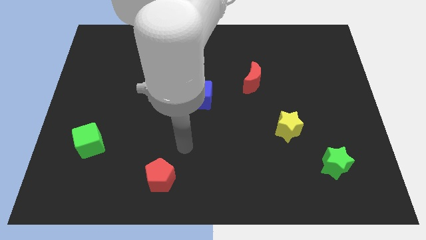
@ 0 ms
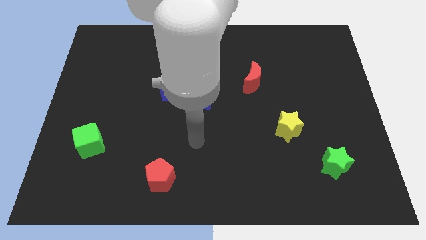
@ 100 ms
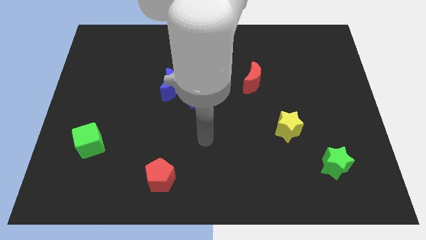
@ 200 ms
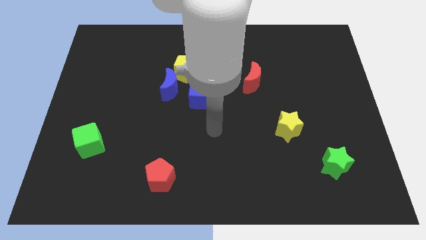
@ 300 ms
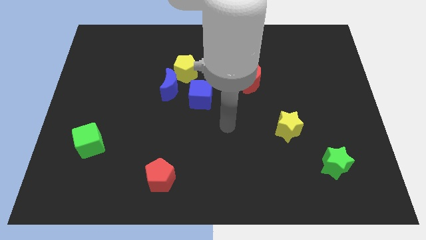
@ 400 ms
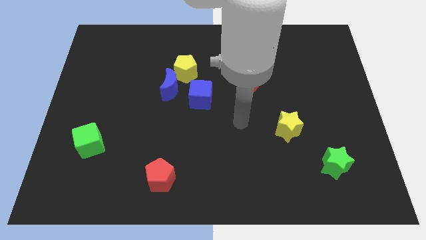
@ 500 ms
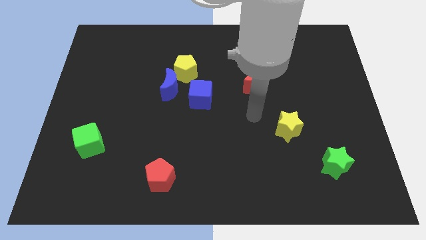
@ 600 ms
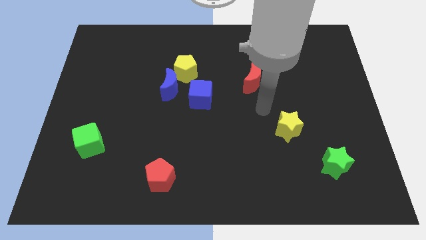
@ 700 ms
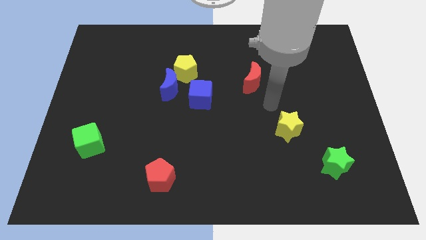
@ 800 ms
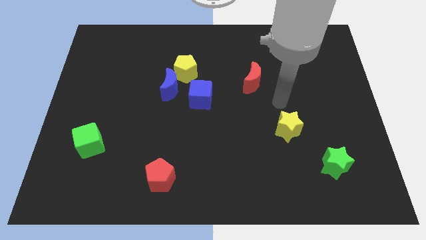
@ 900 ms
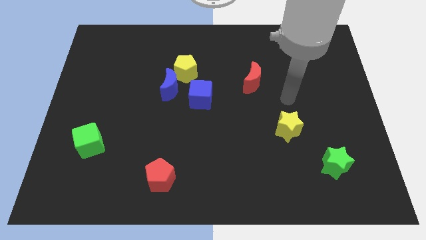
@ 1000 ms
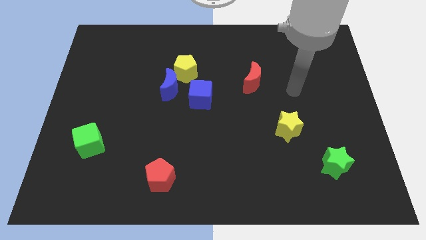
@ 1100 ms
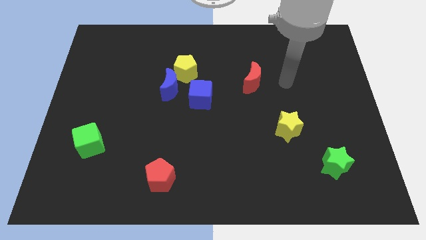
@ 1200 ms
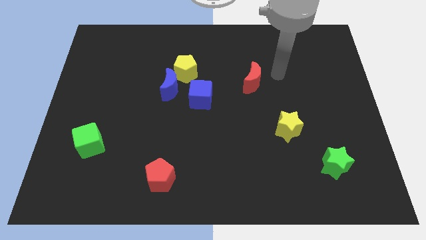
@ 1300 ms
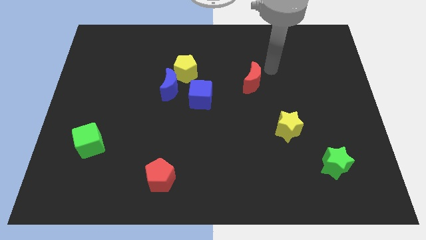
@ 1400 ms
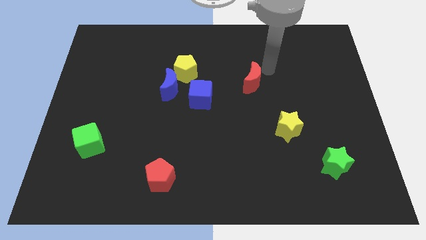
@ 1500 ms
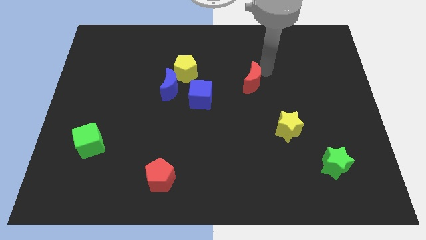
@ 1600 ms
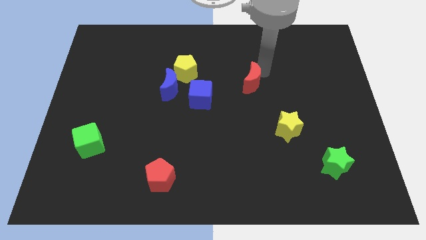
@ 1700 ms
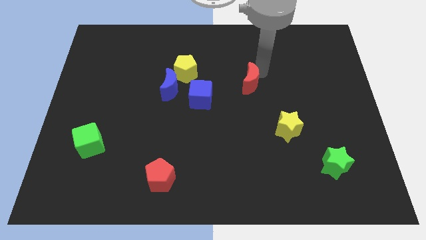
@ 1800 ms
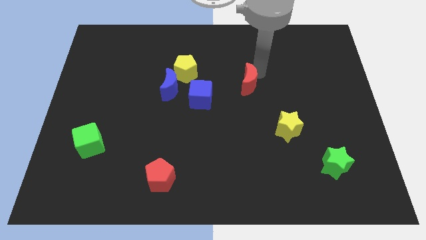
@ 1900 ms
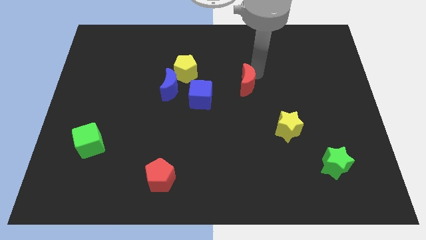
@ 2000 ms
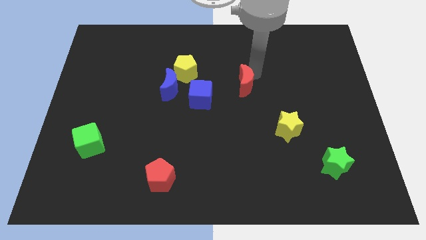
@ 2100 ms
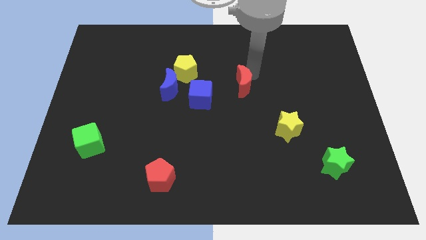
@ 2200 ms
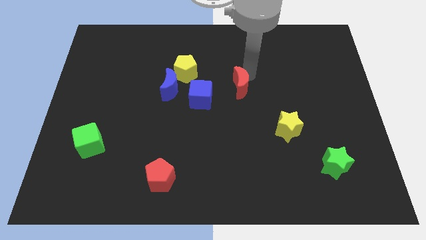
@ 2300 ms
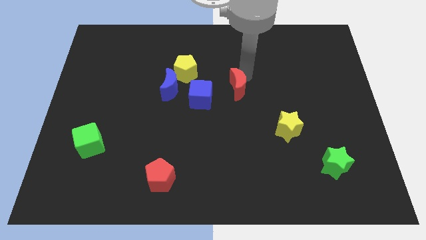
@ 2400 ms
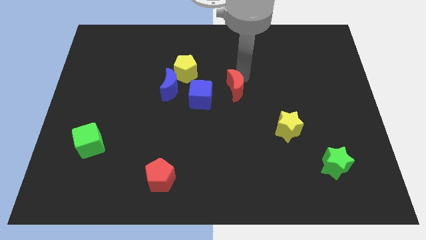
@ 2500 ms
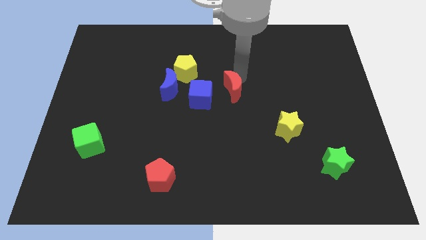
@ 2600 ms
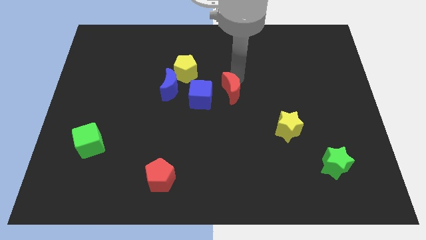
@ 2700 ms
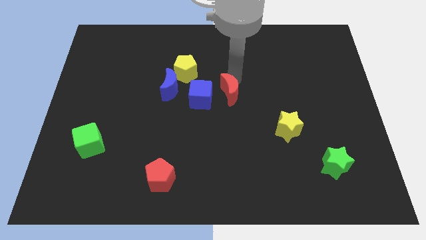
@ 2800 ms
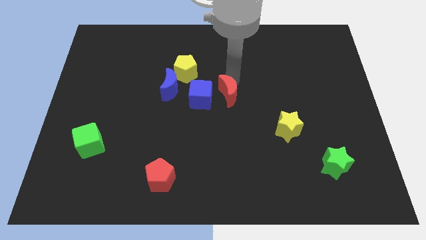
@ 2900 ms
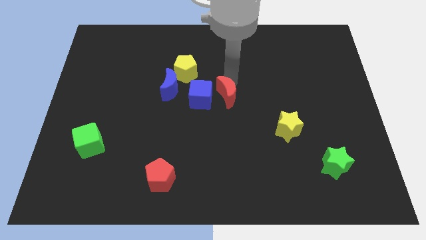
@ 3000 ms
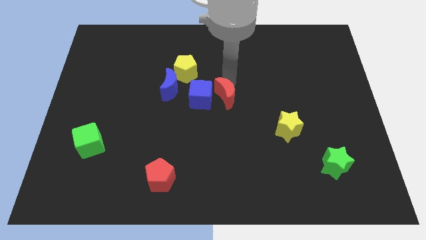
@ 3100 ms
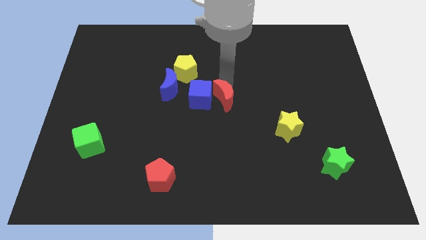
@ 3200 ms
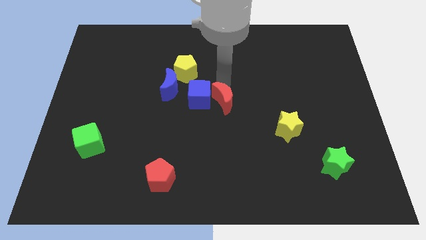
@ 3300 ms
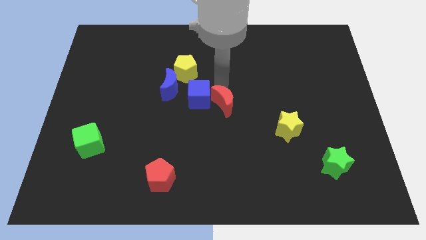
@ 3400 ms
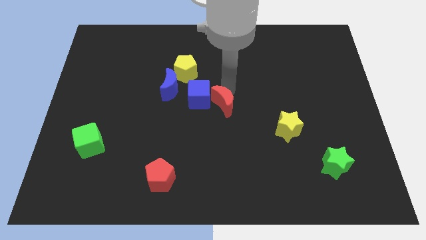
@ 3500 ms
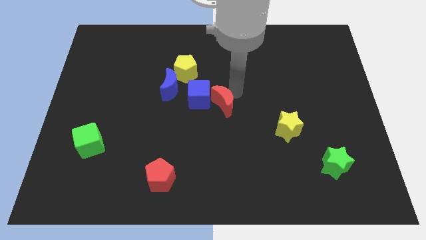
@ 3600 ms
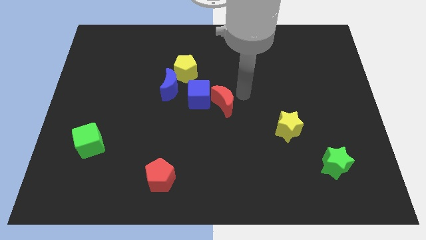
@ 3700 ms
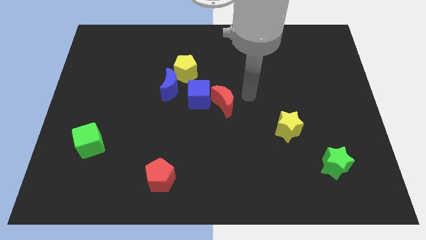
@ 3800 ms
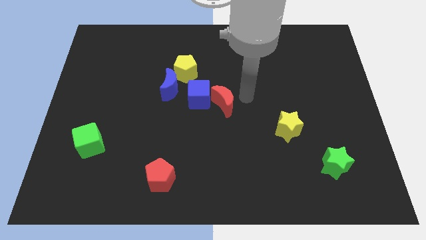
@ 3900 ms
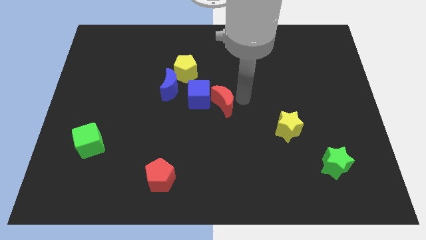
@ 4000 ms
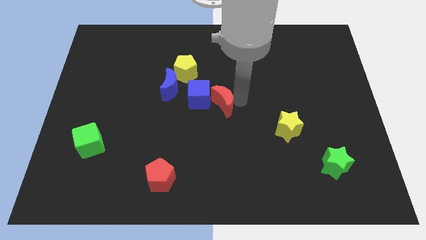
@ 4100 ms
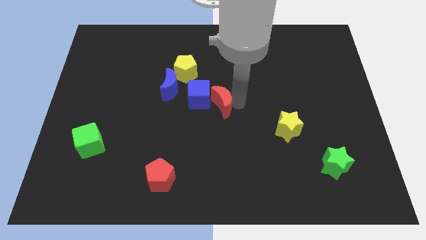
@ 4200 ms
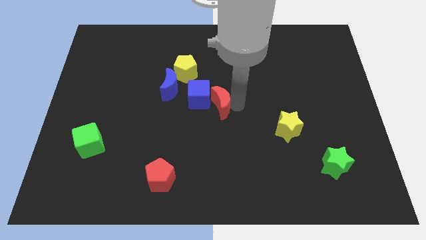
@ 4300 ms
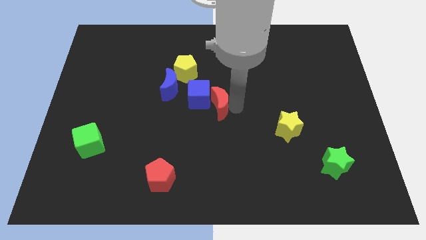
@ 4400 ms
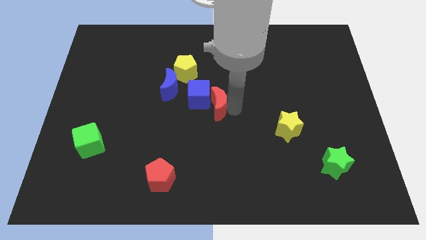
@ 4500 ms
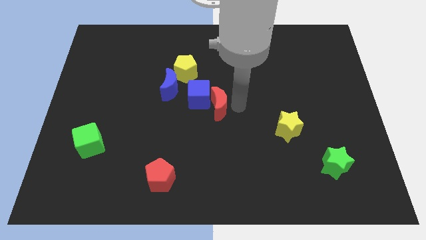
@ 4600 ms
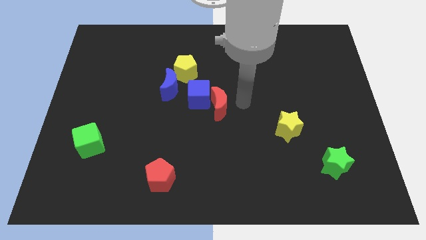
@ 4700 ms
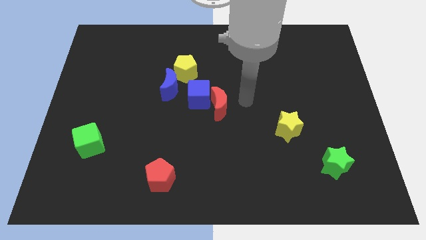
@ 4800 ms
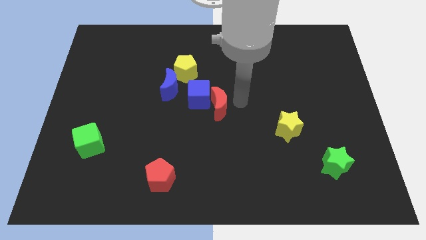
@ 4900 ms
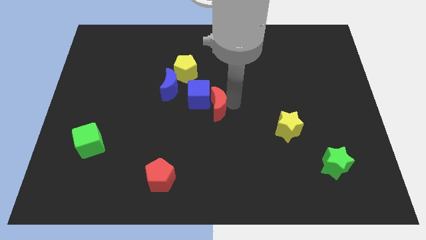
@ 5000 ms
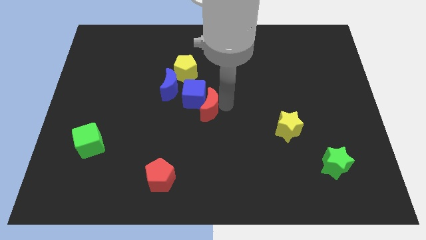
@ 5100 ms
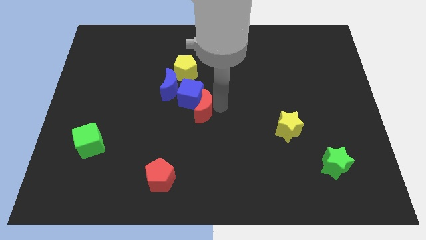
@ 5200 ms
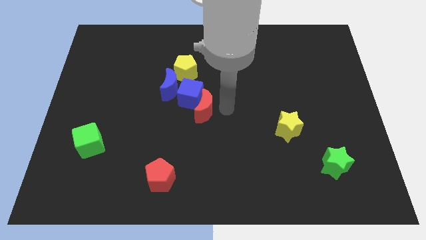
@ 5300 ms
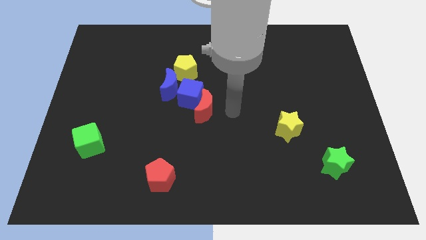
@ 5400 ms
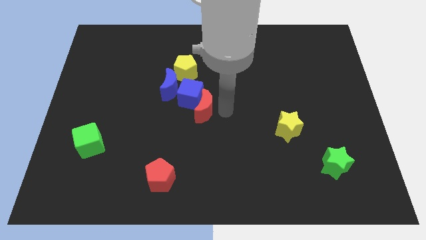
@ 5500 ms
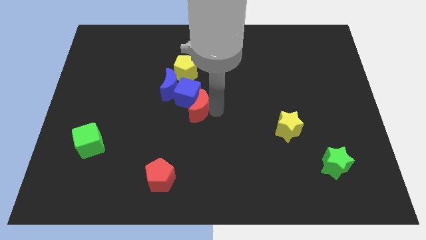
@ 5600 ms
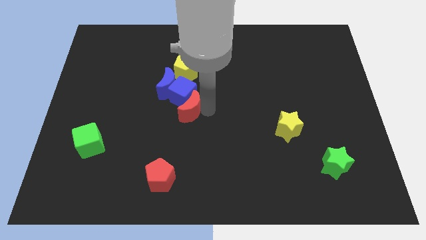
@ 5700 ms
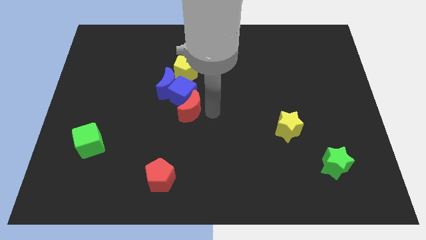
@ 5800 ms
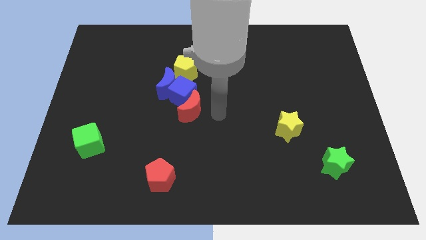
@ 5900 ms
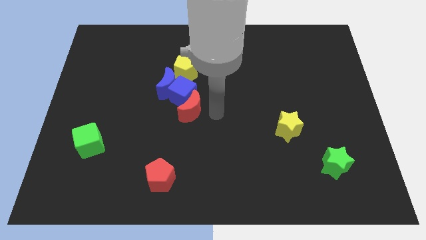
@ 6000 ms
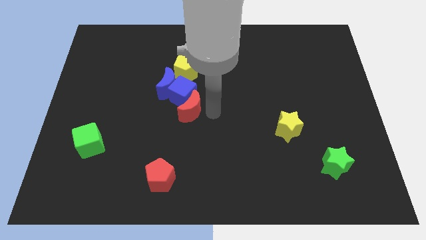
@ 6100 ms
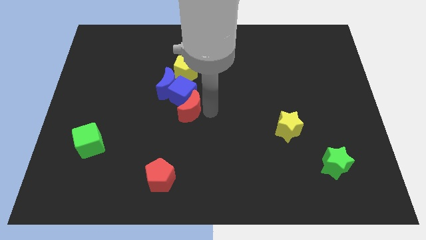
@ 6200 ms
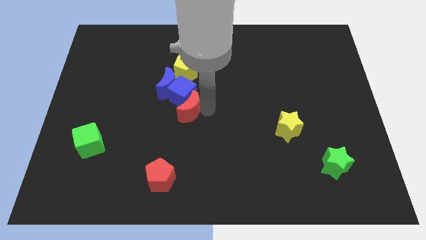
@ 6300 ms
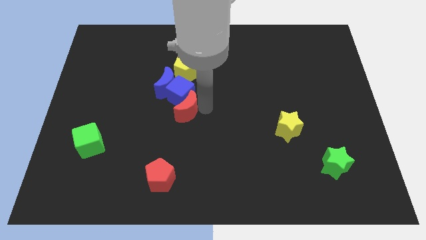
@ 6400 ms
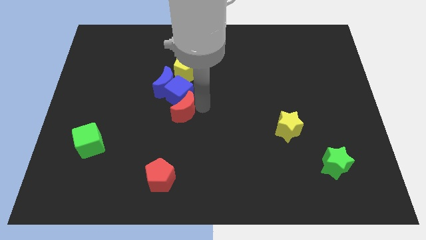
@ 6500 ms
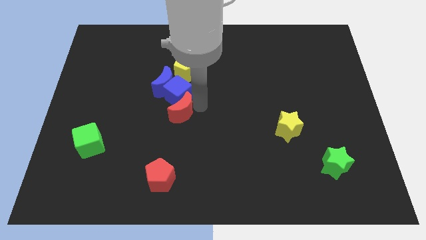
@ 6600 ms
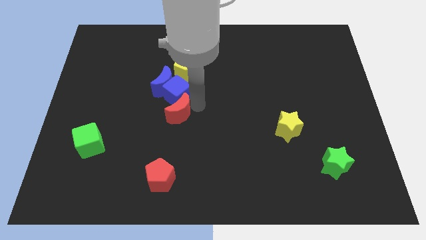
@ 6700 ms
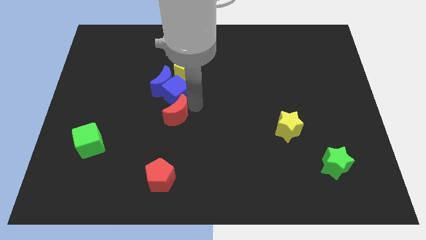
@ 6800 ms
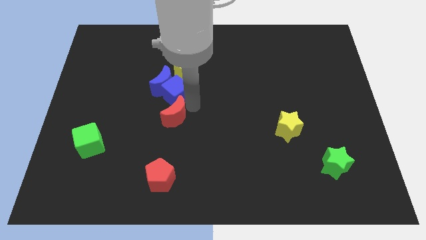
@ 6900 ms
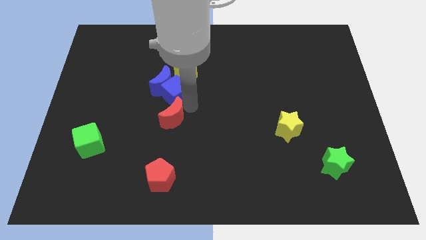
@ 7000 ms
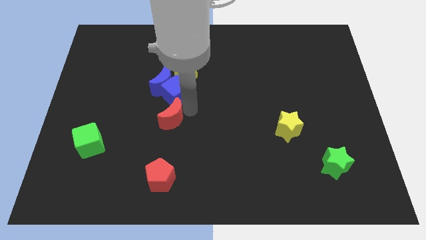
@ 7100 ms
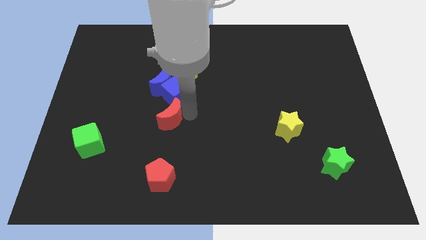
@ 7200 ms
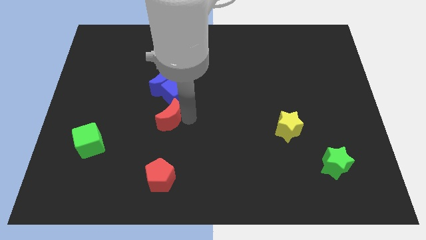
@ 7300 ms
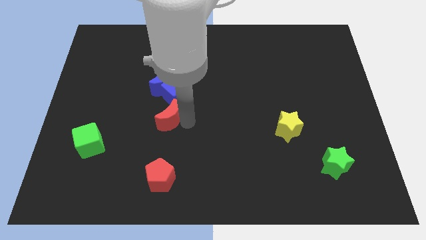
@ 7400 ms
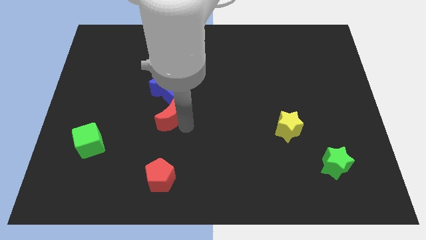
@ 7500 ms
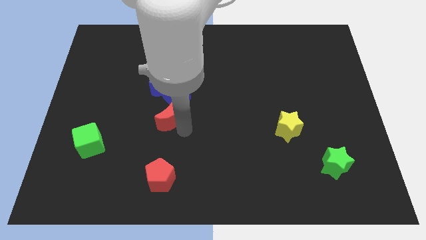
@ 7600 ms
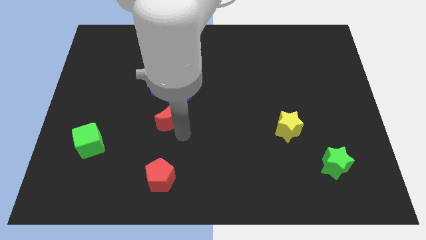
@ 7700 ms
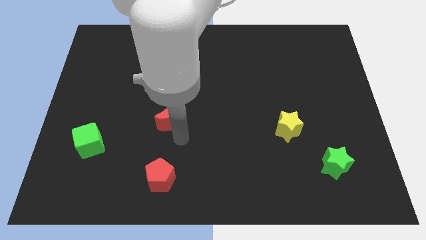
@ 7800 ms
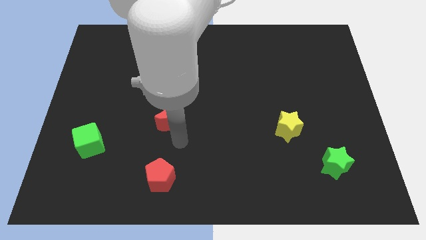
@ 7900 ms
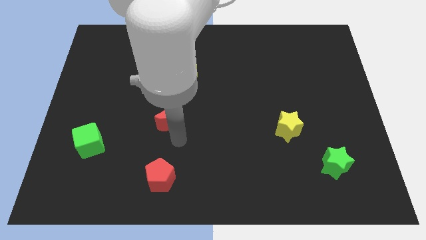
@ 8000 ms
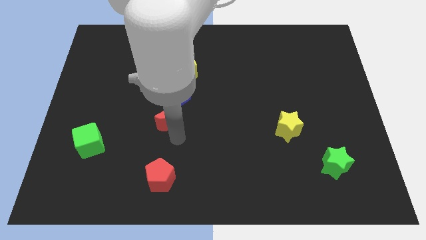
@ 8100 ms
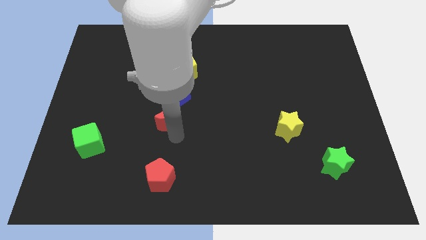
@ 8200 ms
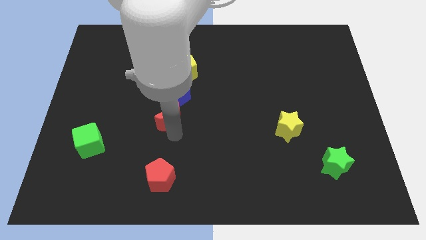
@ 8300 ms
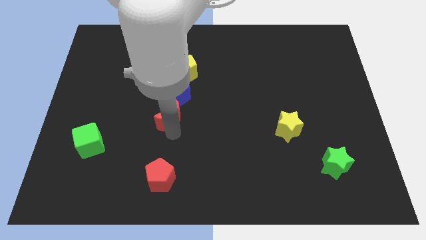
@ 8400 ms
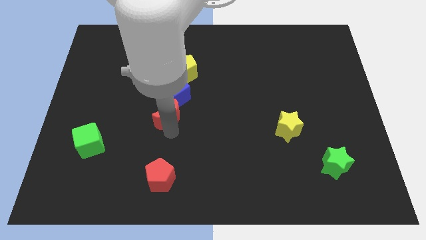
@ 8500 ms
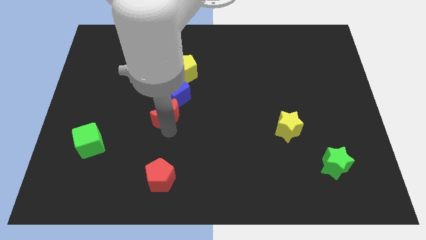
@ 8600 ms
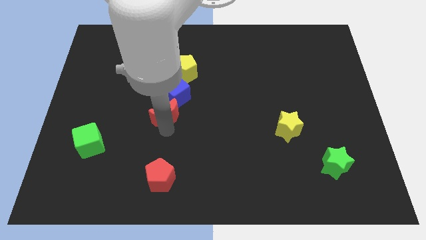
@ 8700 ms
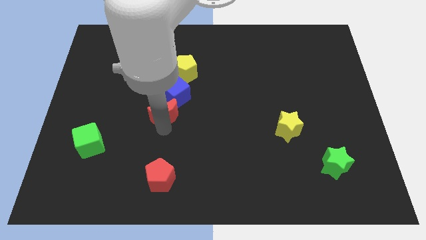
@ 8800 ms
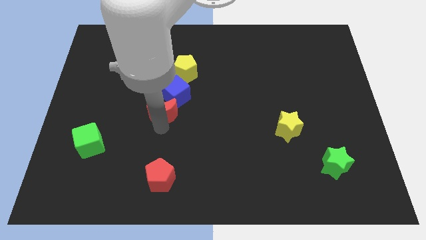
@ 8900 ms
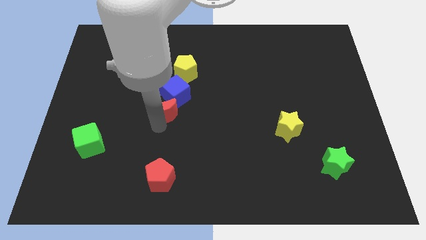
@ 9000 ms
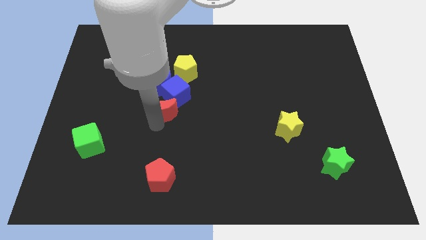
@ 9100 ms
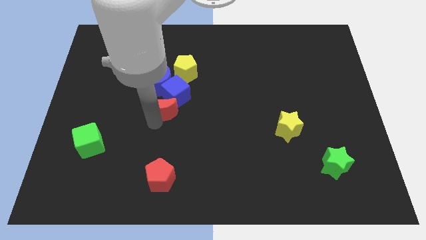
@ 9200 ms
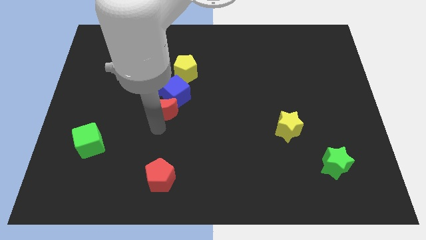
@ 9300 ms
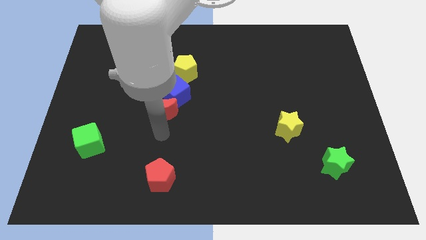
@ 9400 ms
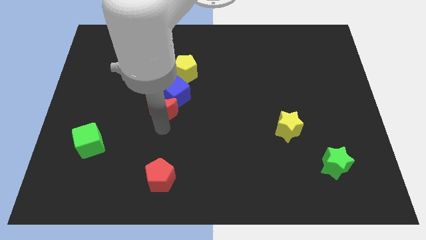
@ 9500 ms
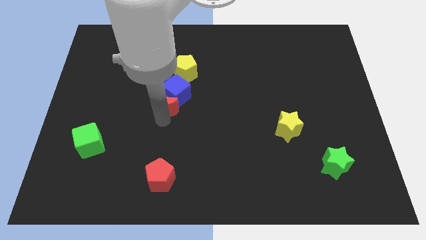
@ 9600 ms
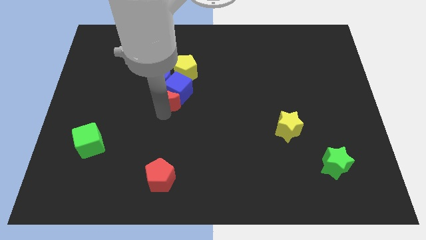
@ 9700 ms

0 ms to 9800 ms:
slide the red moon diagonally down and to the left of the yellow pentagon
